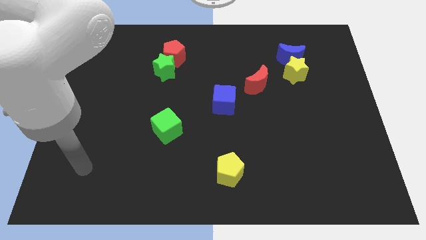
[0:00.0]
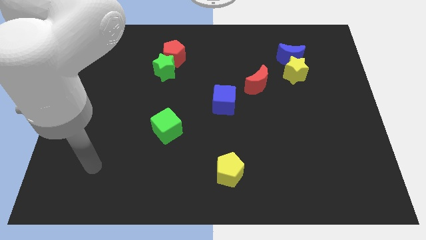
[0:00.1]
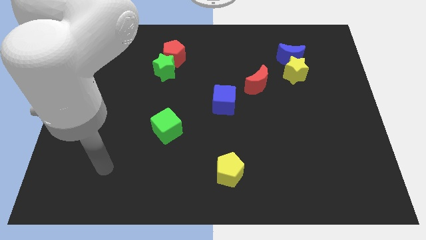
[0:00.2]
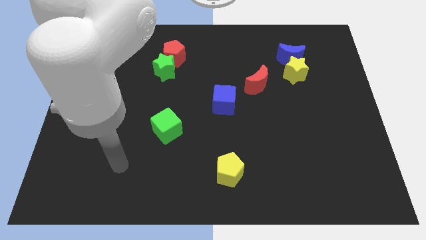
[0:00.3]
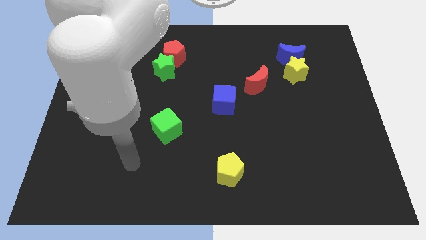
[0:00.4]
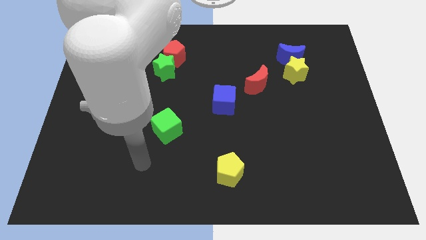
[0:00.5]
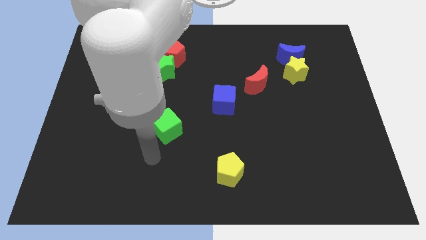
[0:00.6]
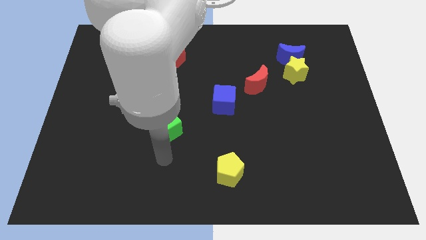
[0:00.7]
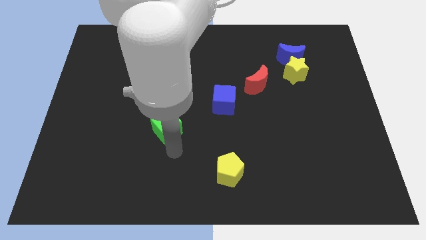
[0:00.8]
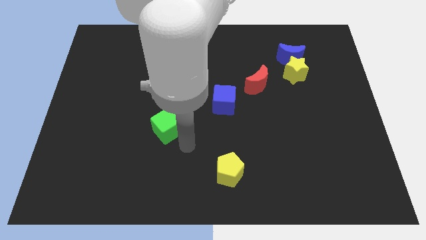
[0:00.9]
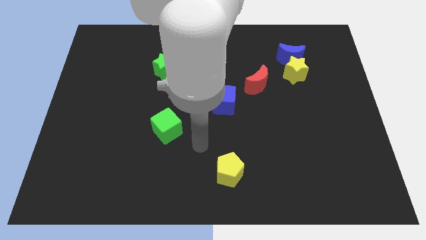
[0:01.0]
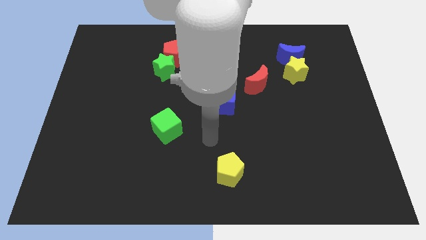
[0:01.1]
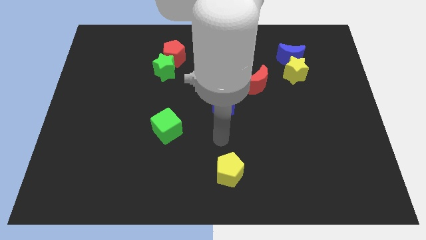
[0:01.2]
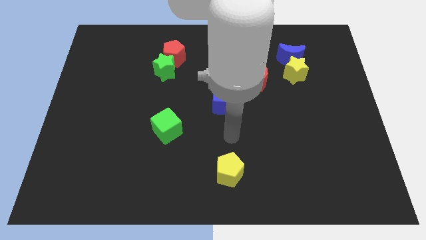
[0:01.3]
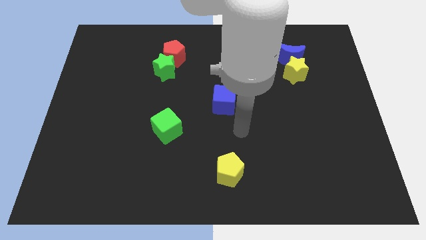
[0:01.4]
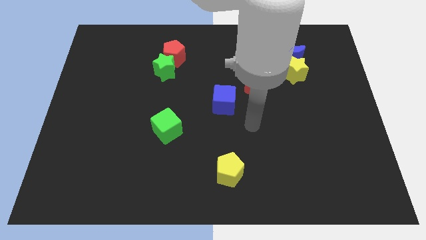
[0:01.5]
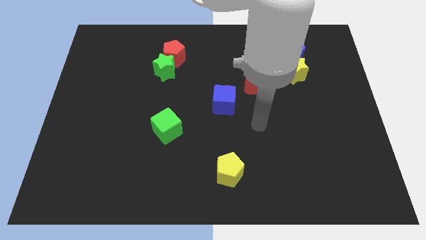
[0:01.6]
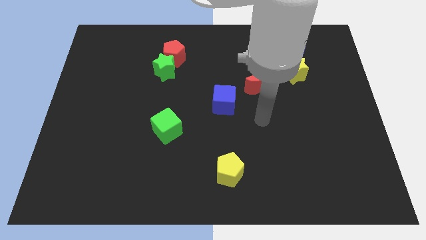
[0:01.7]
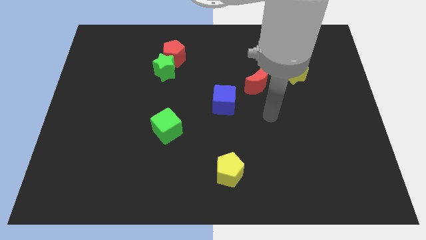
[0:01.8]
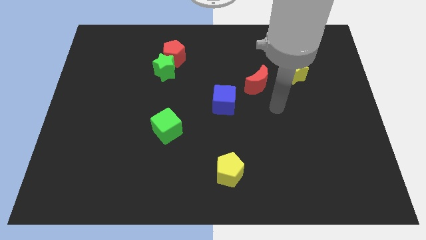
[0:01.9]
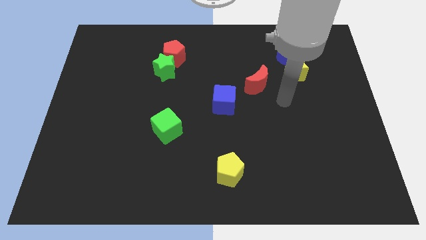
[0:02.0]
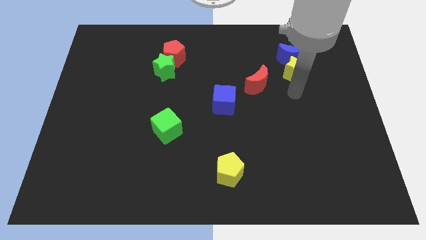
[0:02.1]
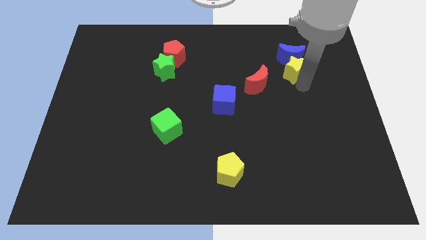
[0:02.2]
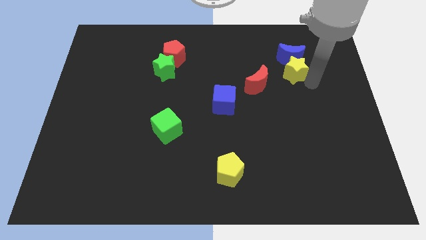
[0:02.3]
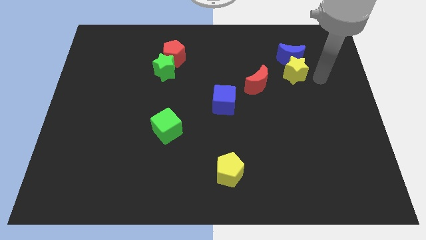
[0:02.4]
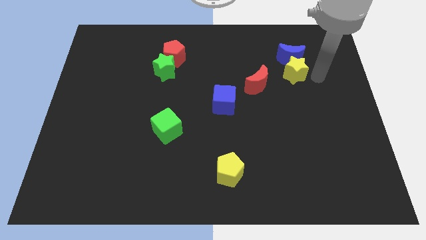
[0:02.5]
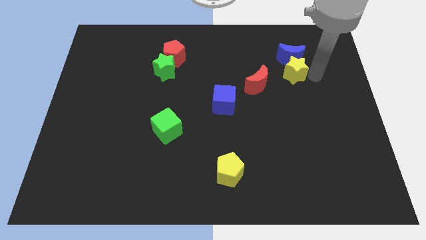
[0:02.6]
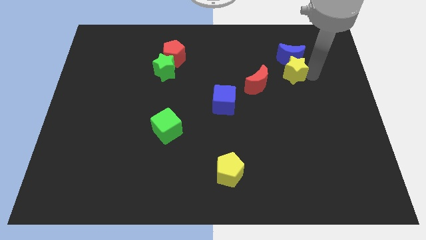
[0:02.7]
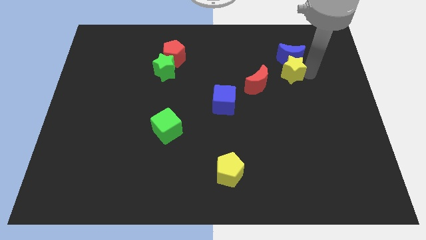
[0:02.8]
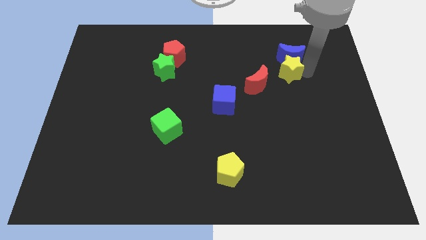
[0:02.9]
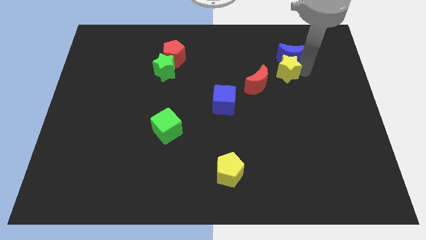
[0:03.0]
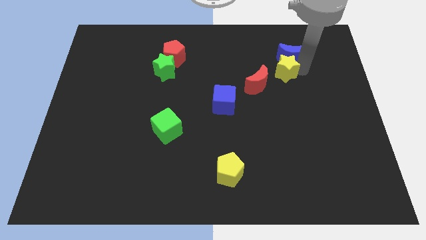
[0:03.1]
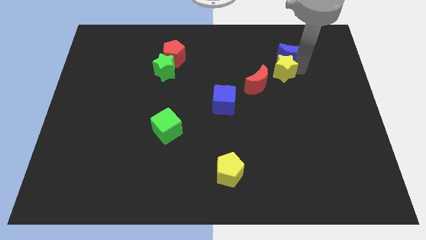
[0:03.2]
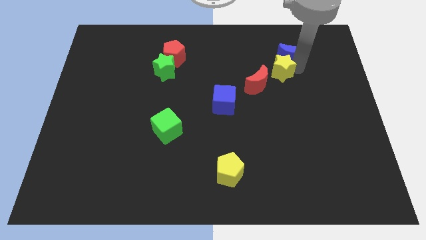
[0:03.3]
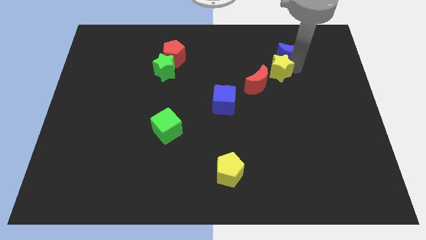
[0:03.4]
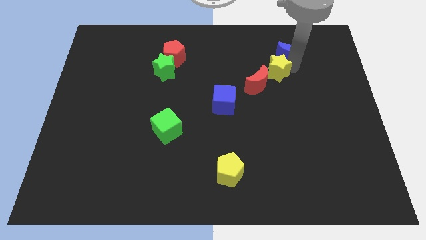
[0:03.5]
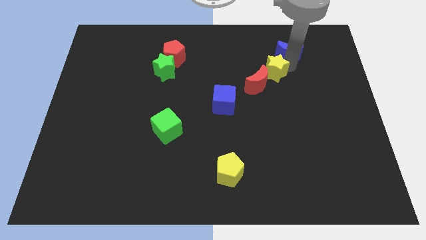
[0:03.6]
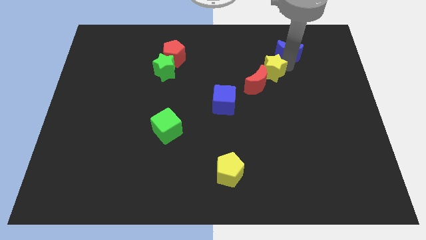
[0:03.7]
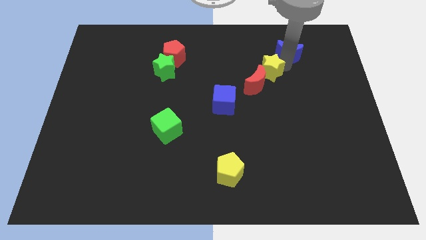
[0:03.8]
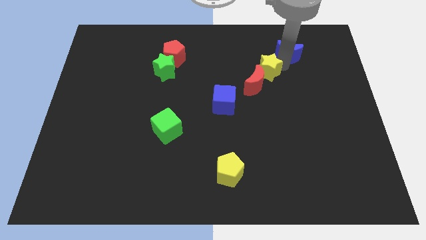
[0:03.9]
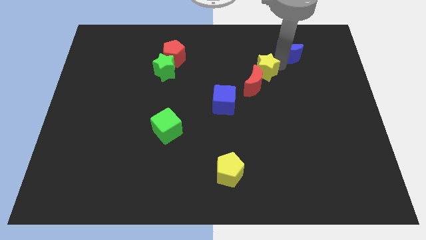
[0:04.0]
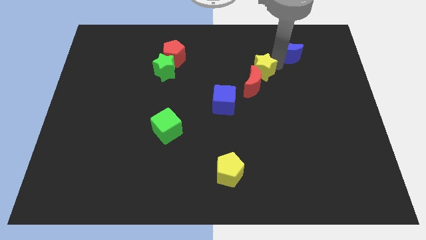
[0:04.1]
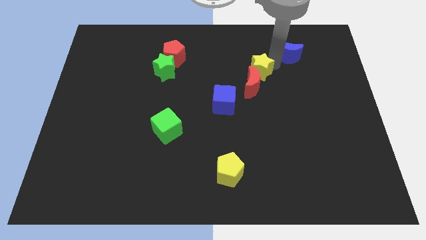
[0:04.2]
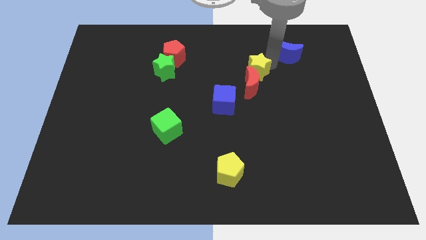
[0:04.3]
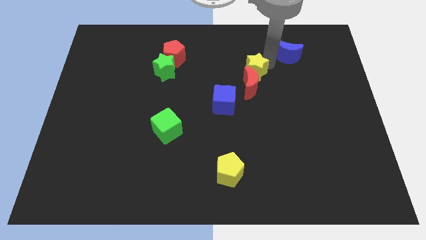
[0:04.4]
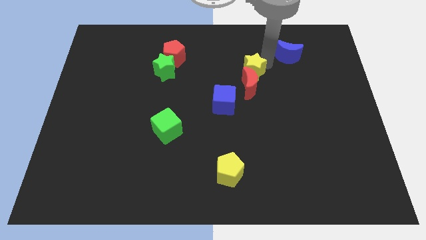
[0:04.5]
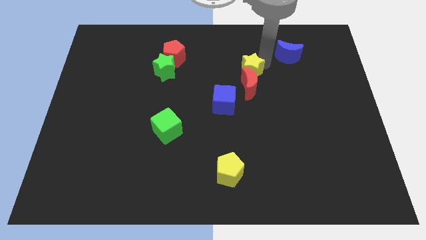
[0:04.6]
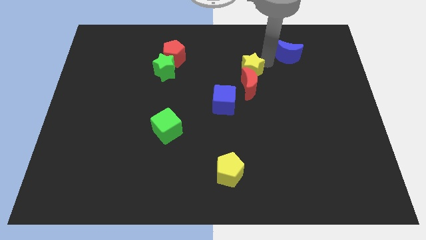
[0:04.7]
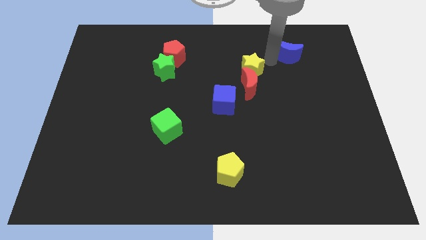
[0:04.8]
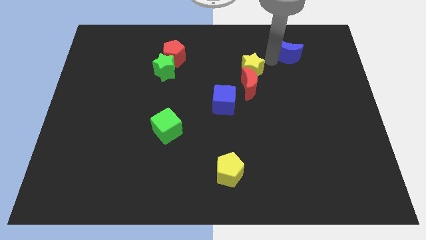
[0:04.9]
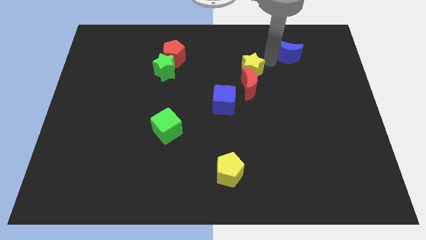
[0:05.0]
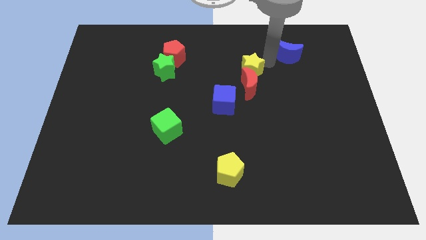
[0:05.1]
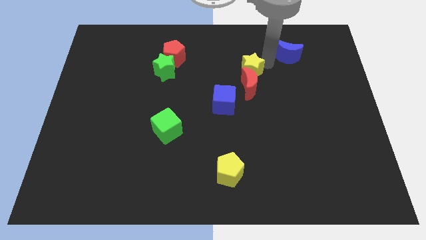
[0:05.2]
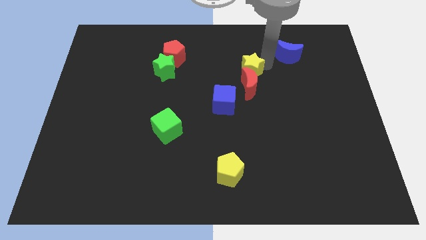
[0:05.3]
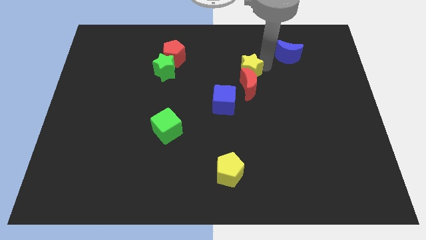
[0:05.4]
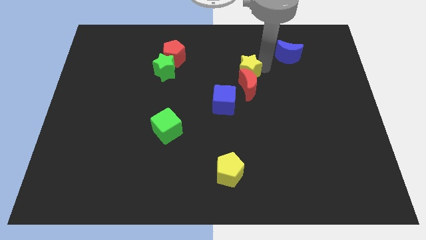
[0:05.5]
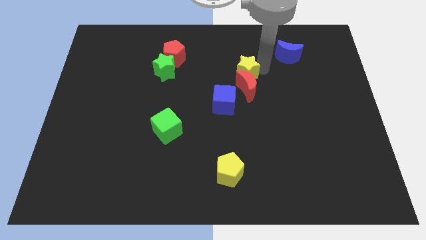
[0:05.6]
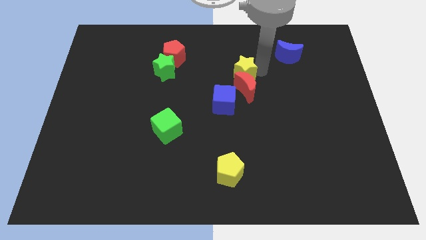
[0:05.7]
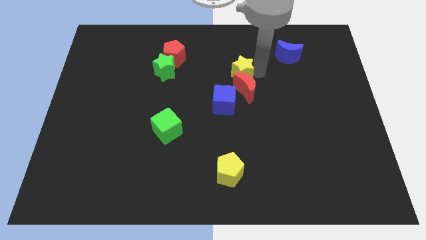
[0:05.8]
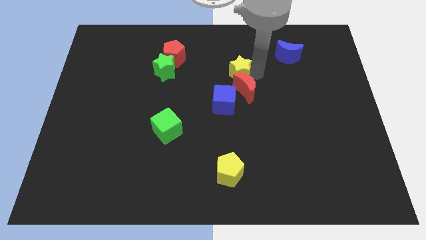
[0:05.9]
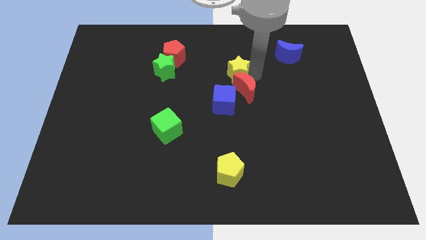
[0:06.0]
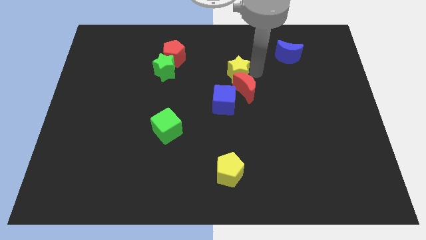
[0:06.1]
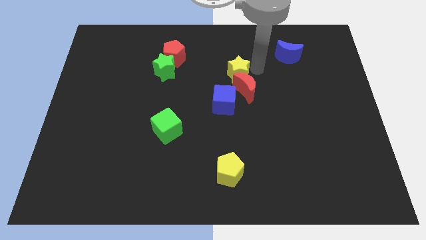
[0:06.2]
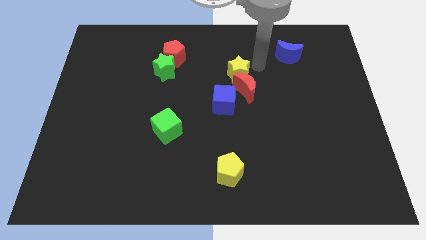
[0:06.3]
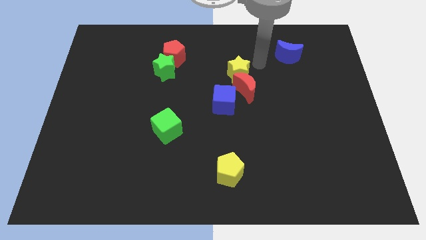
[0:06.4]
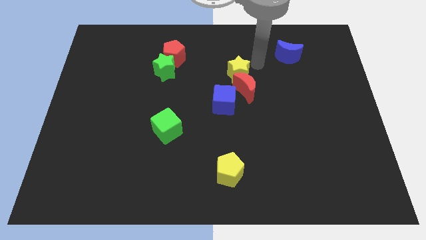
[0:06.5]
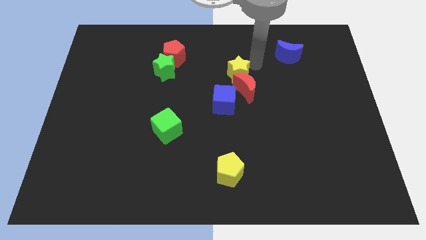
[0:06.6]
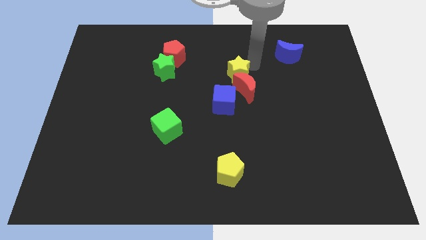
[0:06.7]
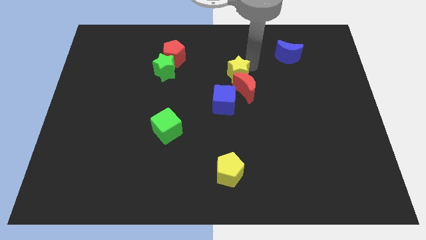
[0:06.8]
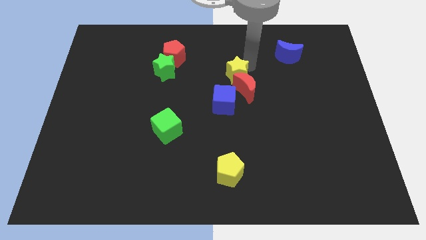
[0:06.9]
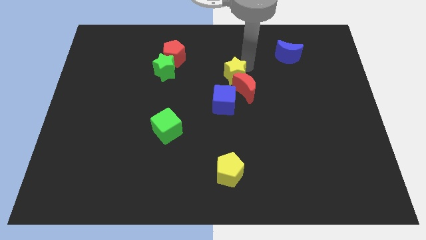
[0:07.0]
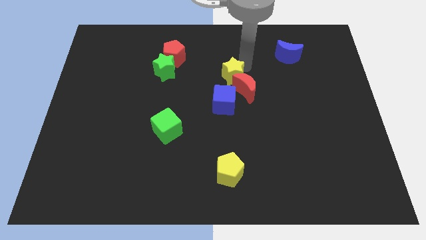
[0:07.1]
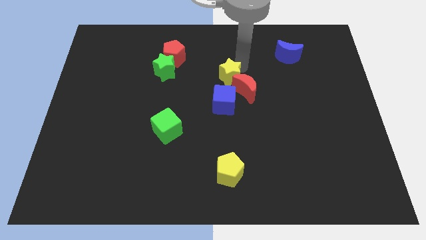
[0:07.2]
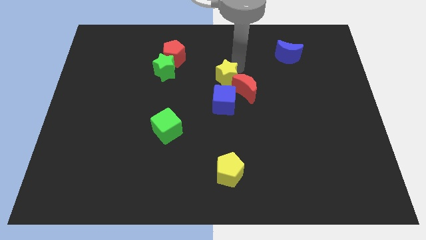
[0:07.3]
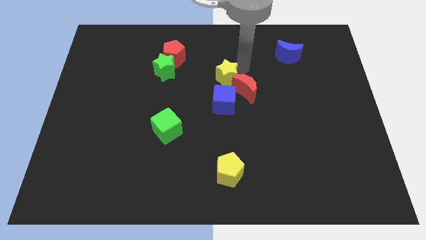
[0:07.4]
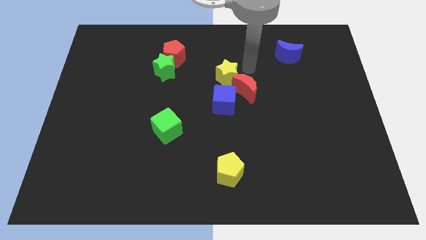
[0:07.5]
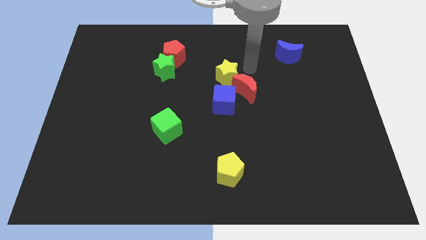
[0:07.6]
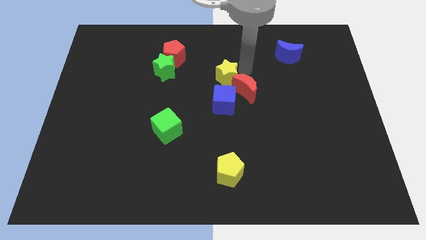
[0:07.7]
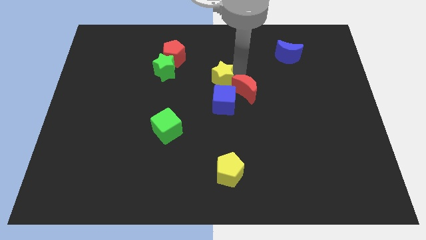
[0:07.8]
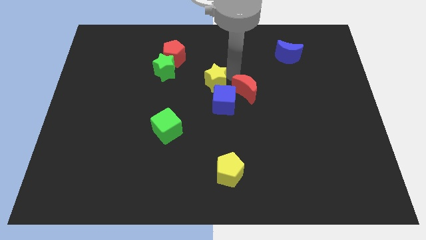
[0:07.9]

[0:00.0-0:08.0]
slide the yellow star to the top left of the blue cube
